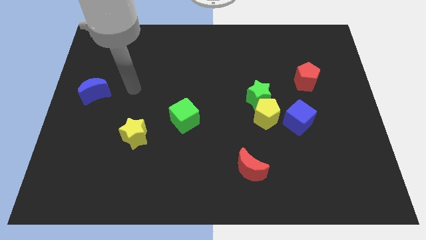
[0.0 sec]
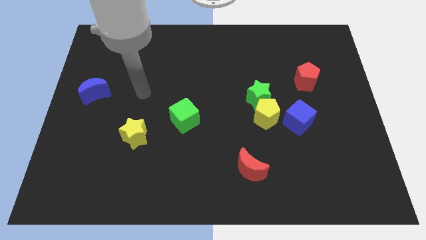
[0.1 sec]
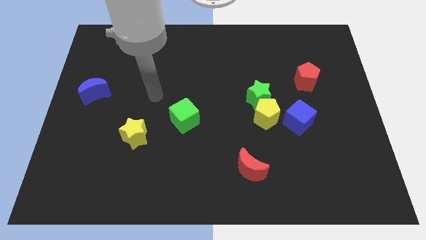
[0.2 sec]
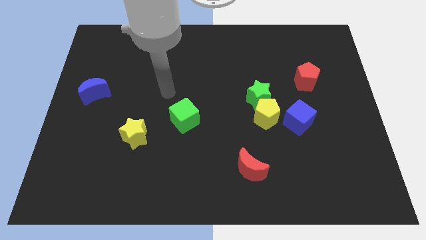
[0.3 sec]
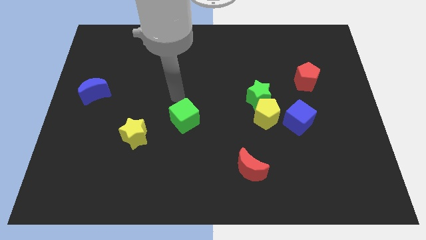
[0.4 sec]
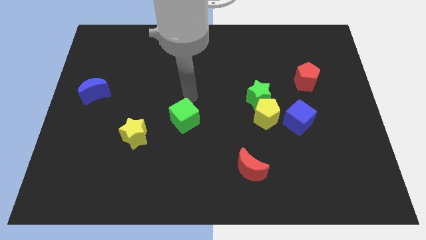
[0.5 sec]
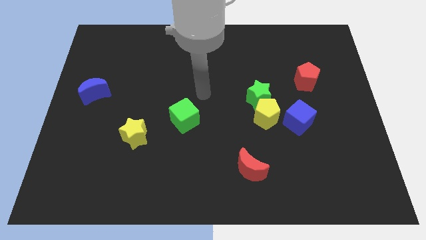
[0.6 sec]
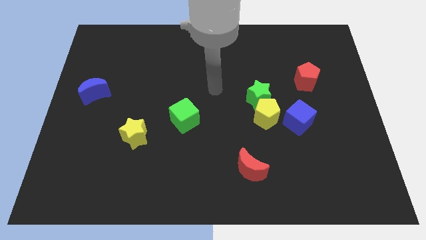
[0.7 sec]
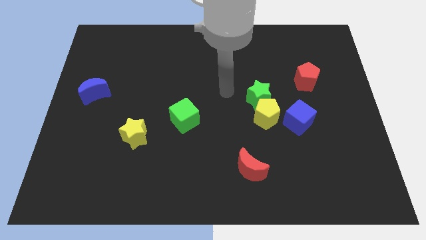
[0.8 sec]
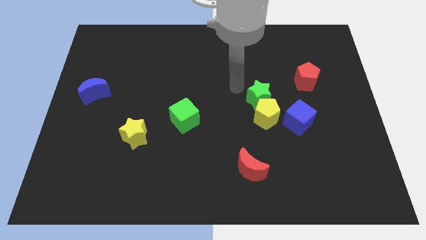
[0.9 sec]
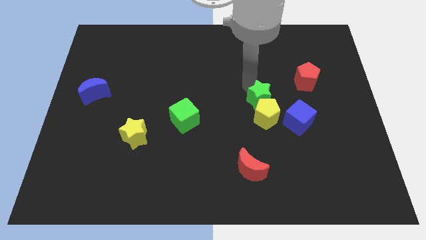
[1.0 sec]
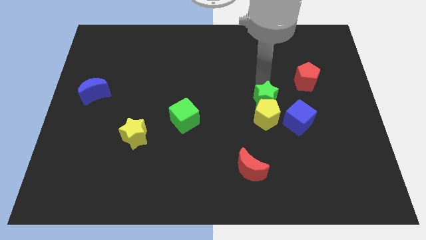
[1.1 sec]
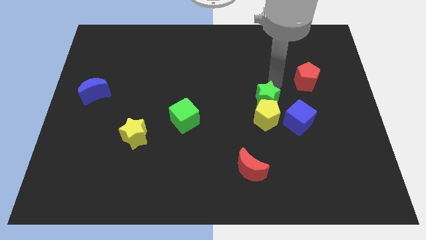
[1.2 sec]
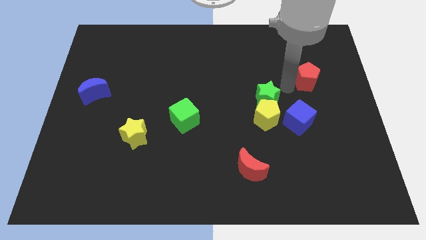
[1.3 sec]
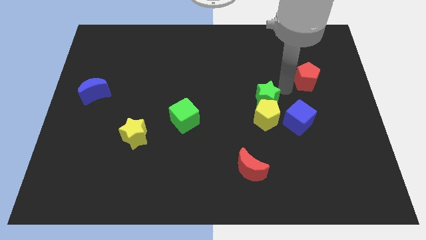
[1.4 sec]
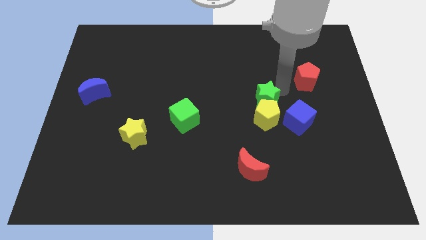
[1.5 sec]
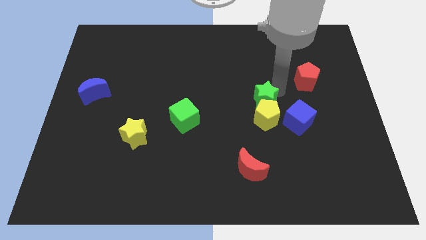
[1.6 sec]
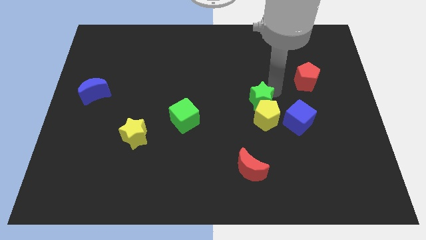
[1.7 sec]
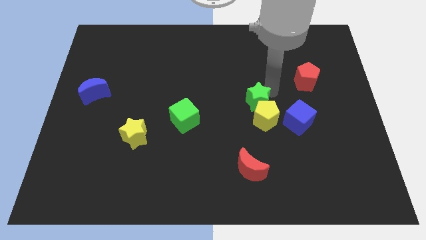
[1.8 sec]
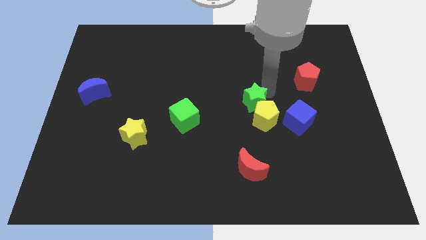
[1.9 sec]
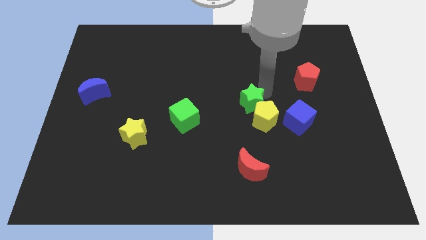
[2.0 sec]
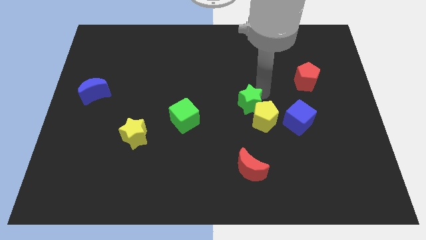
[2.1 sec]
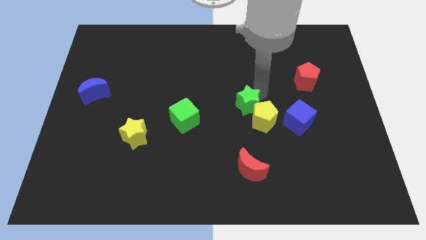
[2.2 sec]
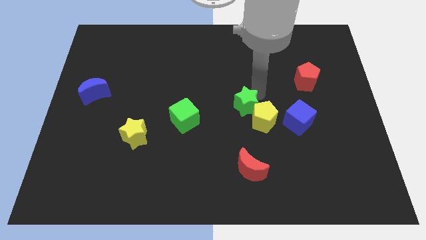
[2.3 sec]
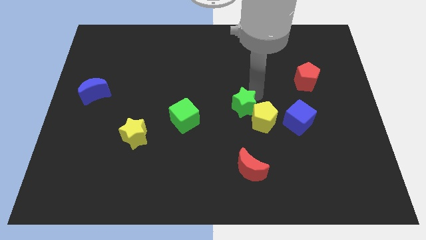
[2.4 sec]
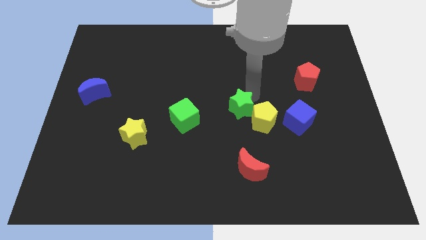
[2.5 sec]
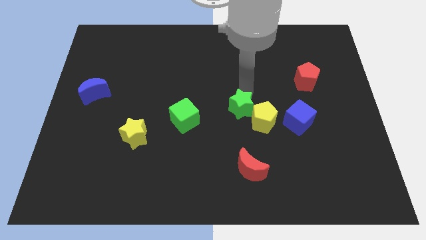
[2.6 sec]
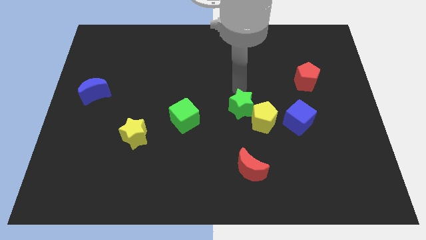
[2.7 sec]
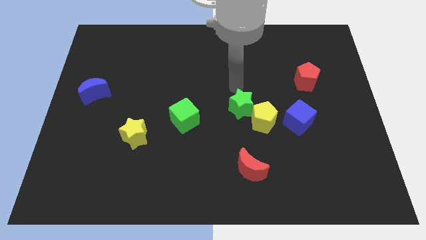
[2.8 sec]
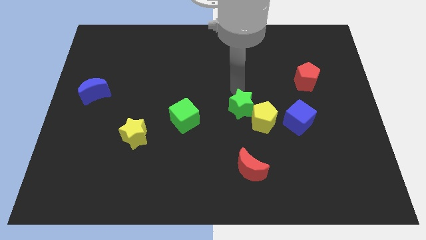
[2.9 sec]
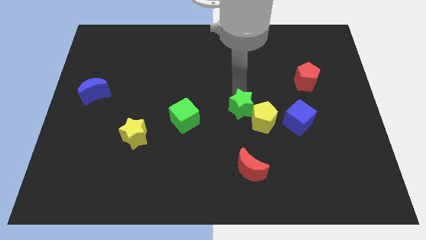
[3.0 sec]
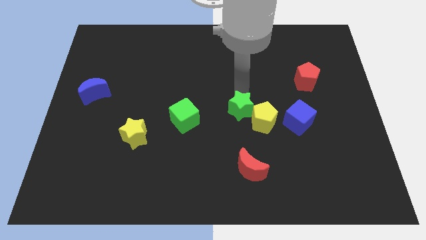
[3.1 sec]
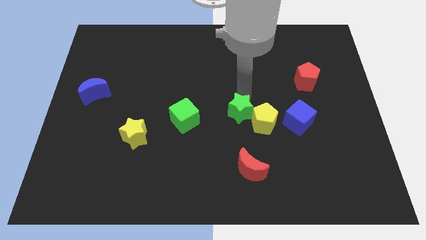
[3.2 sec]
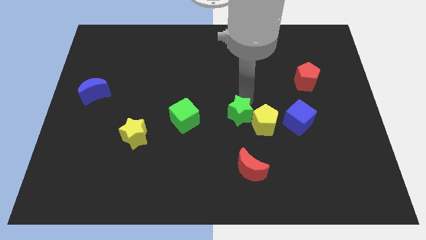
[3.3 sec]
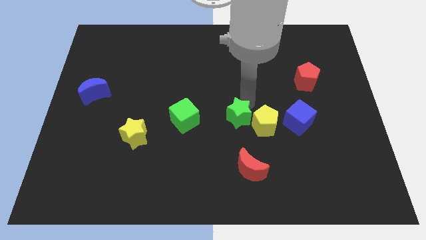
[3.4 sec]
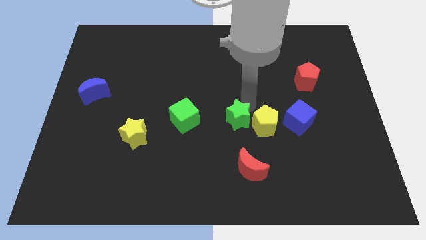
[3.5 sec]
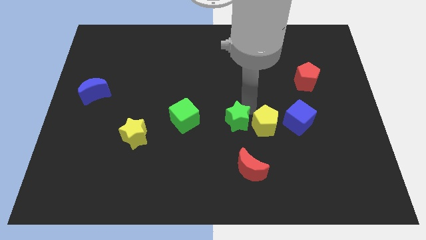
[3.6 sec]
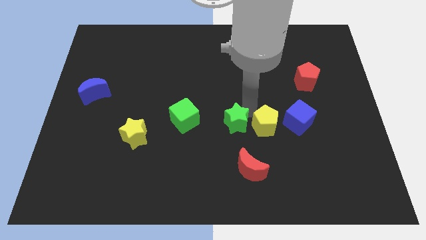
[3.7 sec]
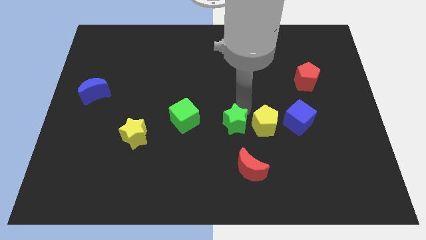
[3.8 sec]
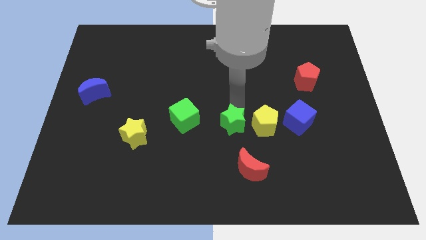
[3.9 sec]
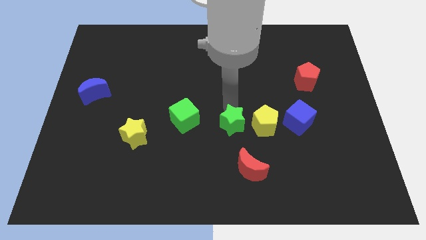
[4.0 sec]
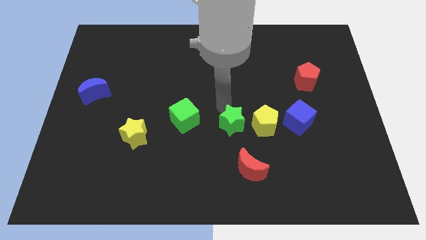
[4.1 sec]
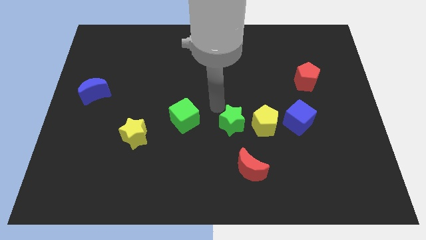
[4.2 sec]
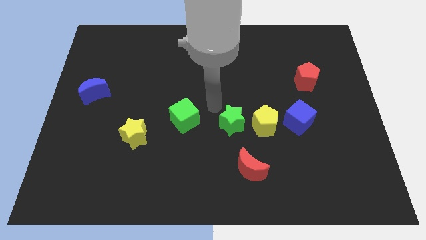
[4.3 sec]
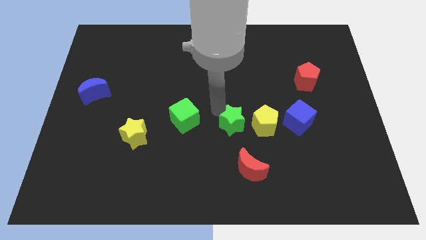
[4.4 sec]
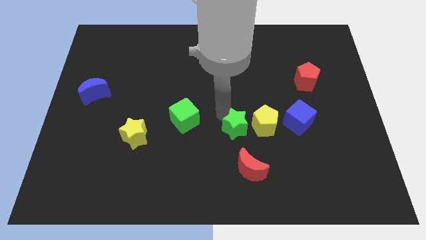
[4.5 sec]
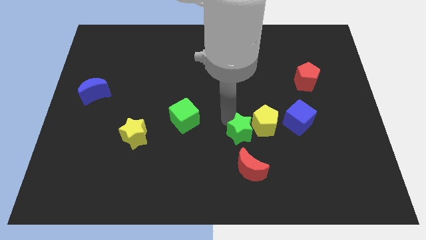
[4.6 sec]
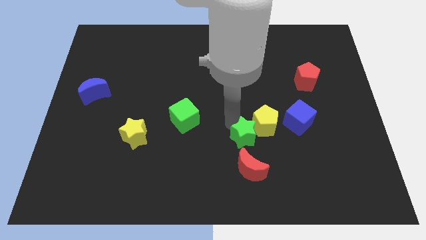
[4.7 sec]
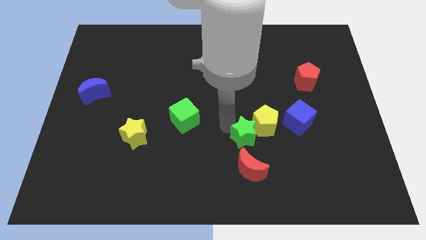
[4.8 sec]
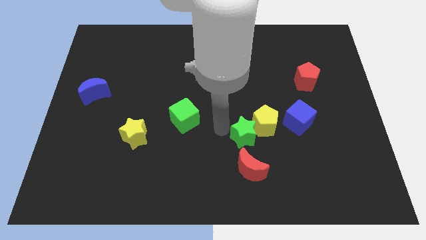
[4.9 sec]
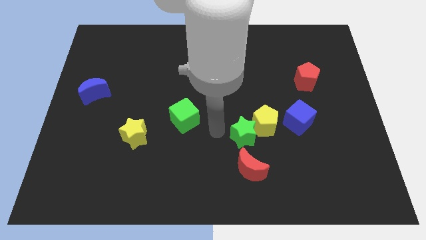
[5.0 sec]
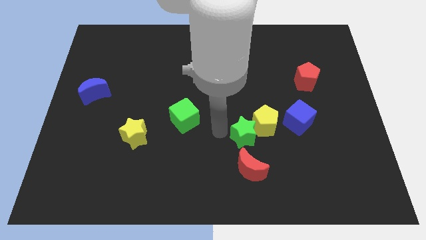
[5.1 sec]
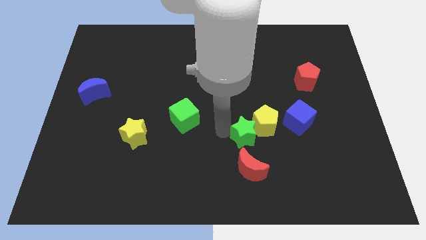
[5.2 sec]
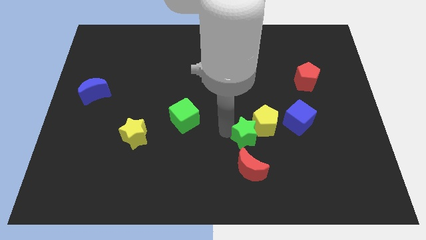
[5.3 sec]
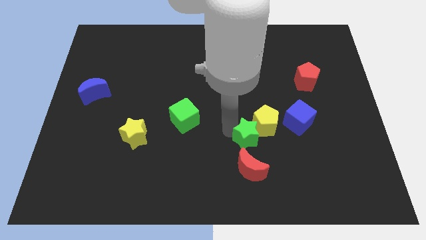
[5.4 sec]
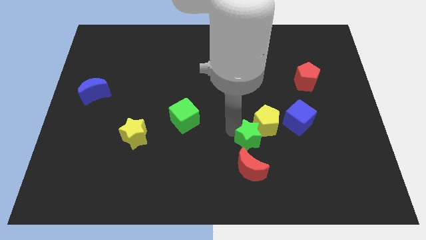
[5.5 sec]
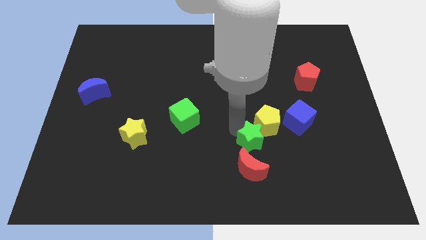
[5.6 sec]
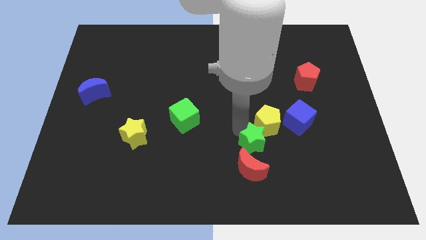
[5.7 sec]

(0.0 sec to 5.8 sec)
put the green star to the bottom left side of the blue cube

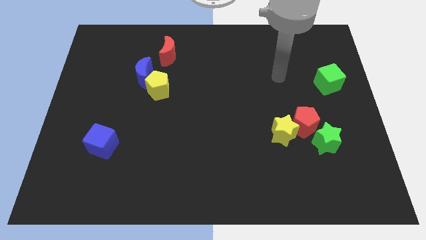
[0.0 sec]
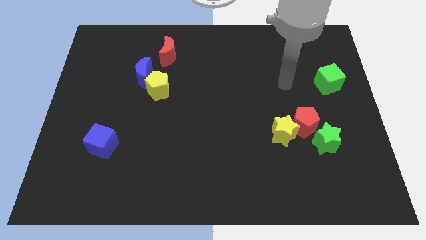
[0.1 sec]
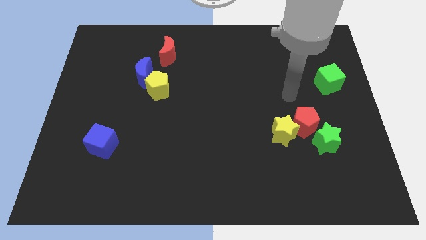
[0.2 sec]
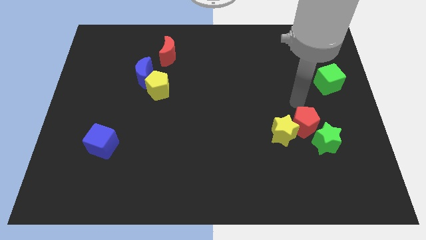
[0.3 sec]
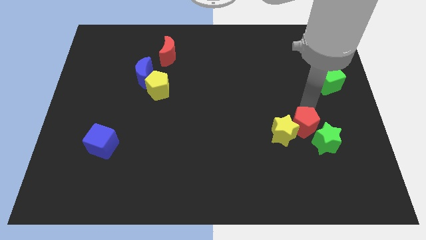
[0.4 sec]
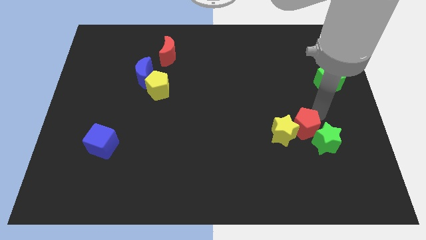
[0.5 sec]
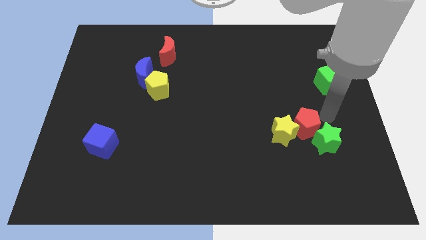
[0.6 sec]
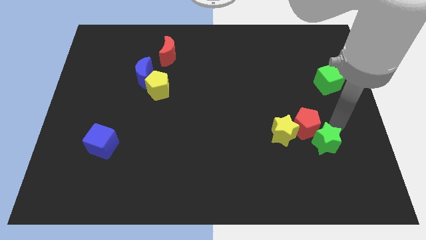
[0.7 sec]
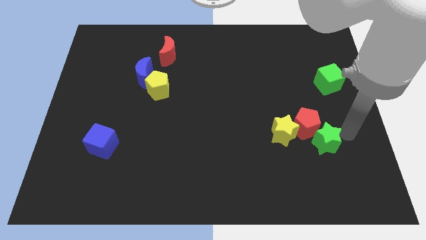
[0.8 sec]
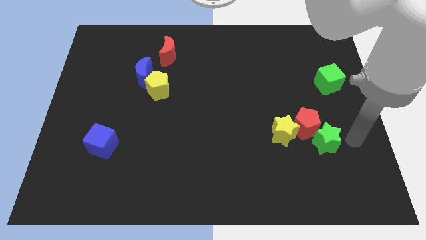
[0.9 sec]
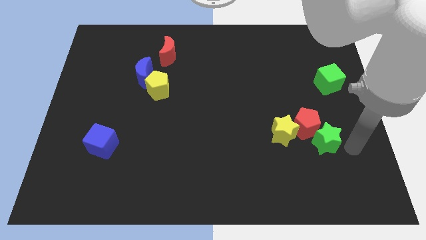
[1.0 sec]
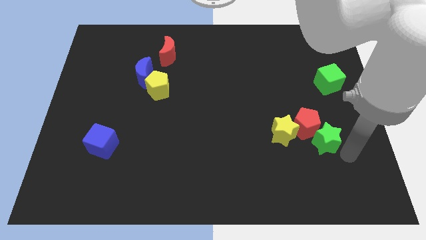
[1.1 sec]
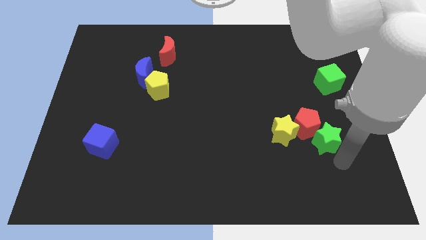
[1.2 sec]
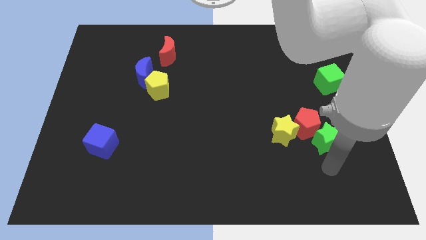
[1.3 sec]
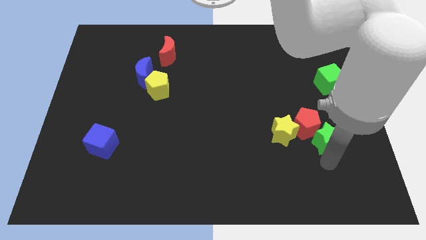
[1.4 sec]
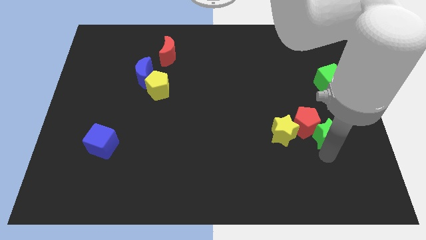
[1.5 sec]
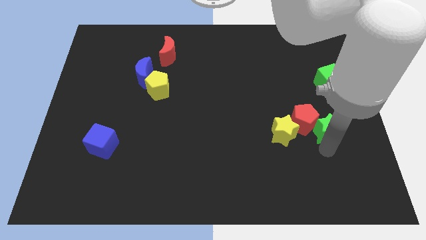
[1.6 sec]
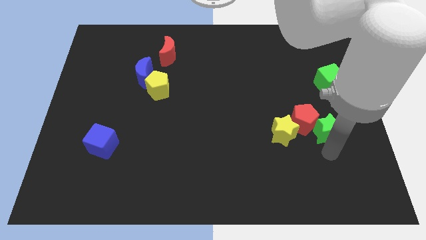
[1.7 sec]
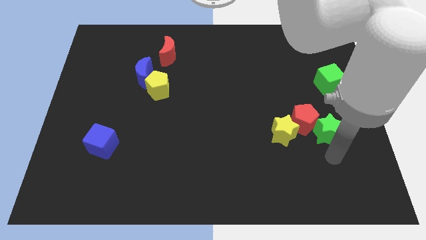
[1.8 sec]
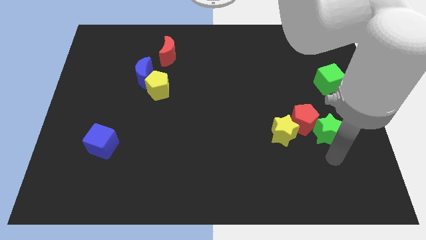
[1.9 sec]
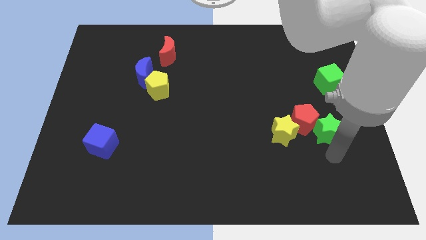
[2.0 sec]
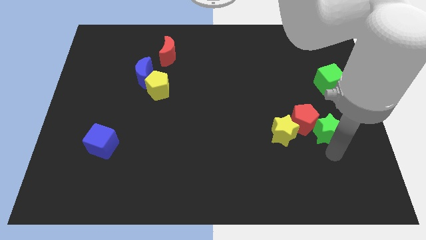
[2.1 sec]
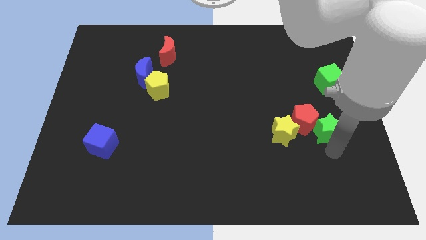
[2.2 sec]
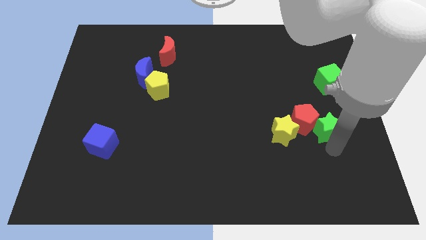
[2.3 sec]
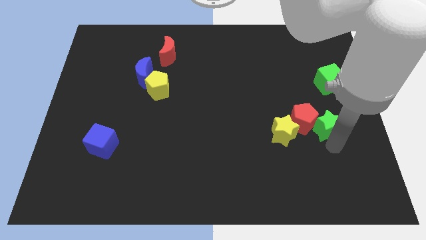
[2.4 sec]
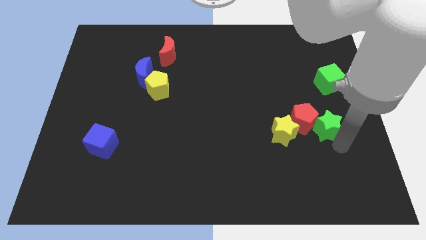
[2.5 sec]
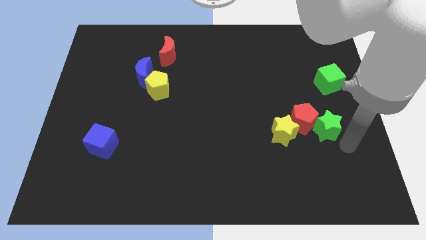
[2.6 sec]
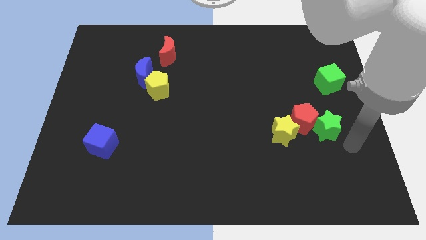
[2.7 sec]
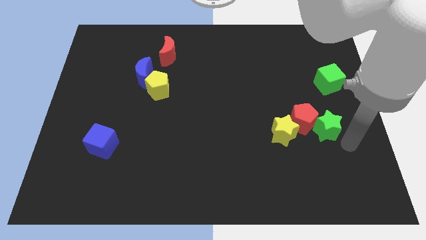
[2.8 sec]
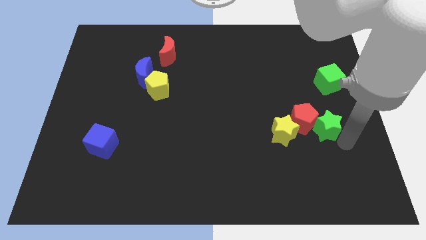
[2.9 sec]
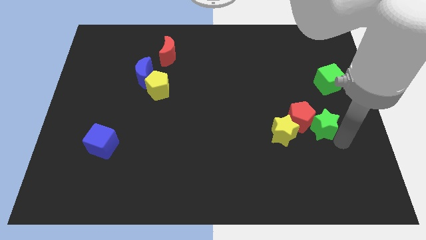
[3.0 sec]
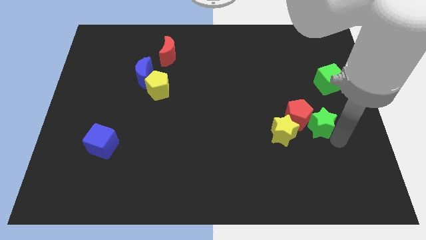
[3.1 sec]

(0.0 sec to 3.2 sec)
slide the green star diagonally up and to the right of the yellow star
